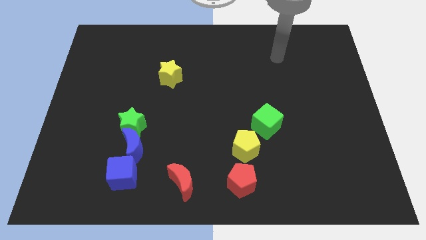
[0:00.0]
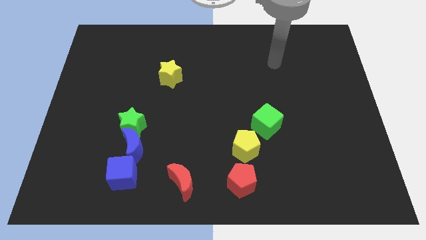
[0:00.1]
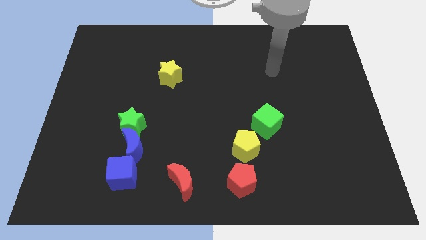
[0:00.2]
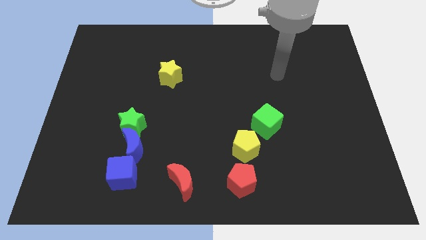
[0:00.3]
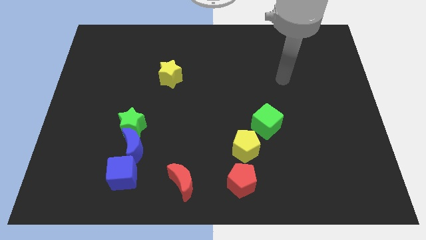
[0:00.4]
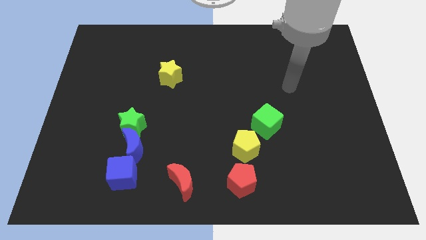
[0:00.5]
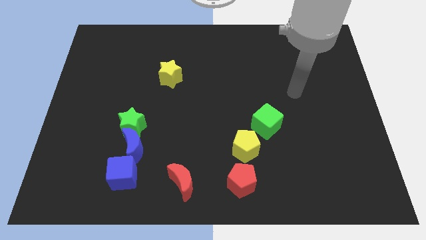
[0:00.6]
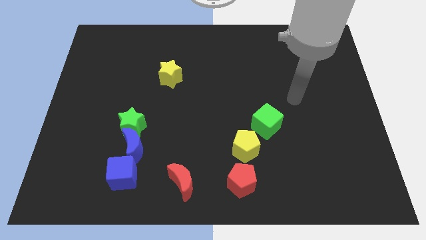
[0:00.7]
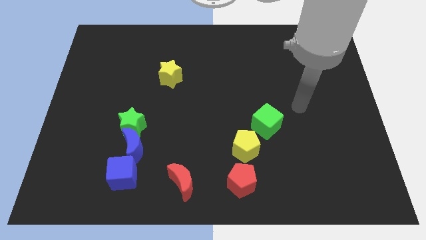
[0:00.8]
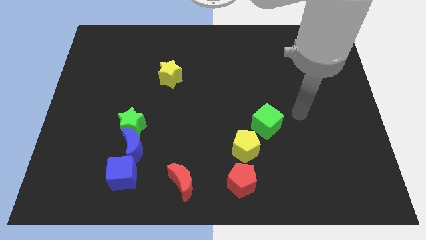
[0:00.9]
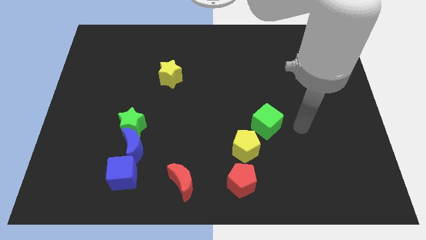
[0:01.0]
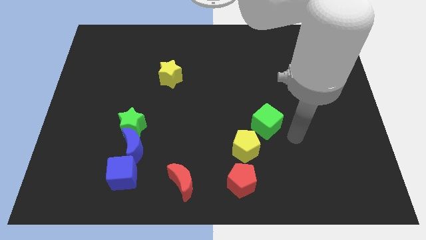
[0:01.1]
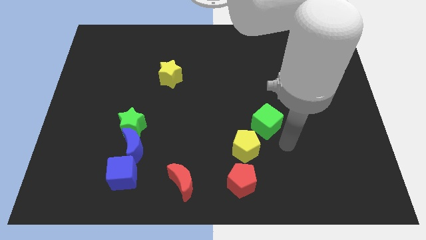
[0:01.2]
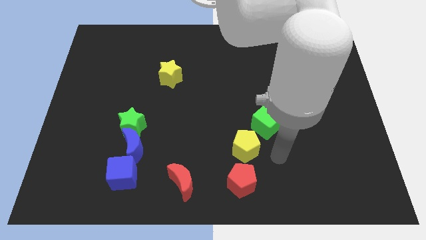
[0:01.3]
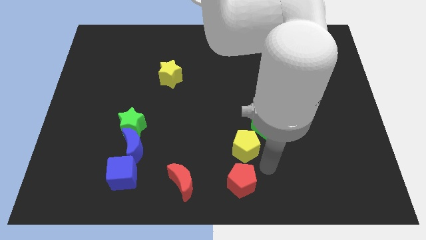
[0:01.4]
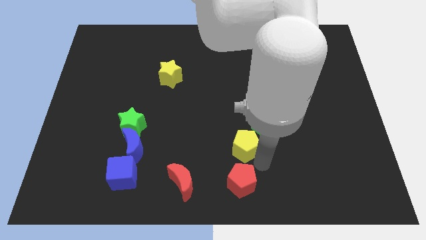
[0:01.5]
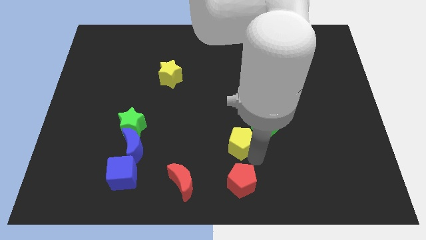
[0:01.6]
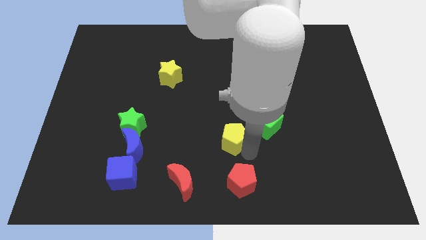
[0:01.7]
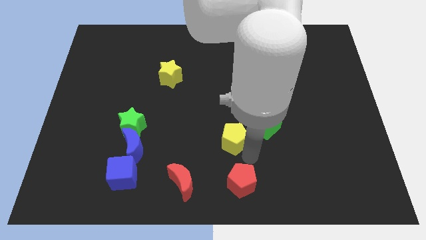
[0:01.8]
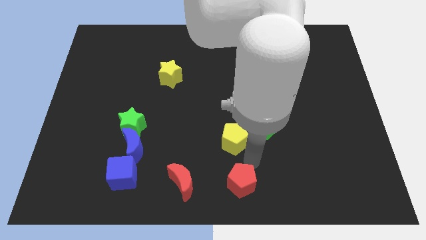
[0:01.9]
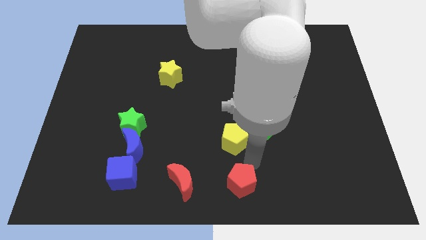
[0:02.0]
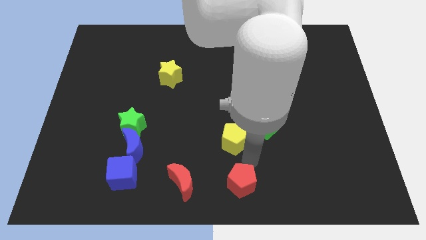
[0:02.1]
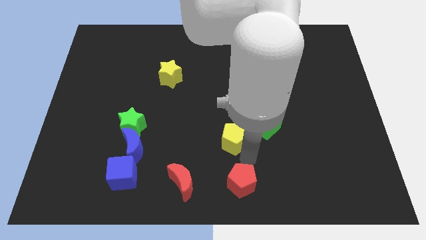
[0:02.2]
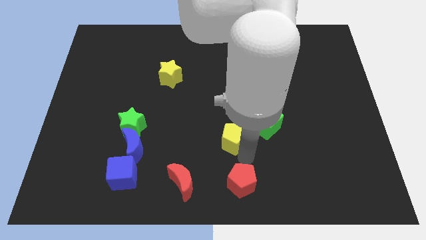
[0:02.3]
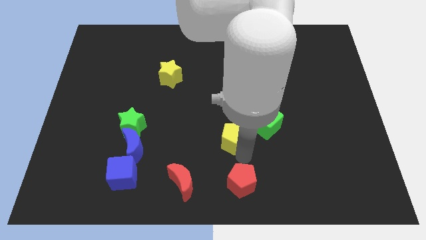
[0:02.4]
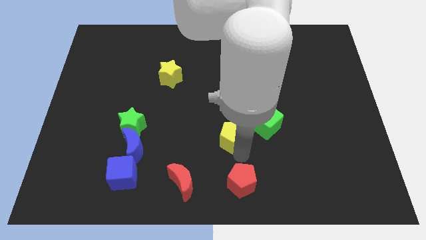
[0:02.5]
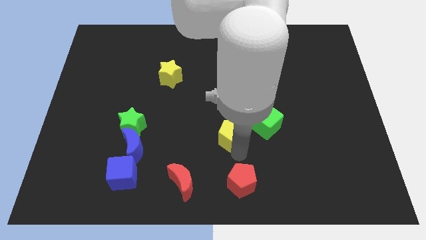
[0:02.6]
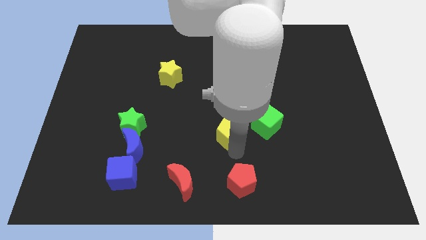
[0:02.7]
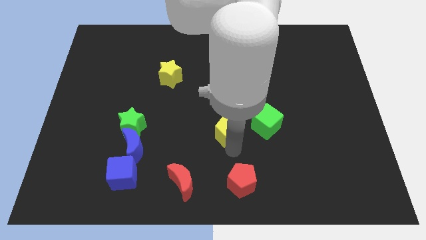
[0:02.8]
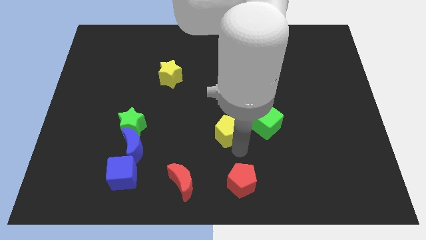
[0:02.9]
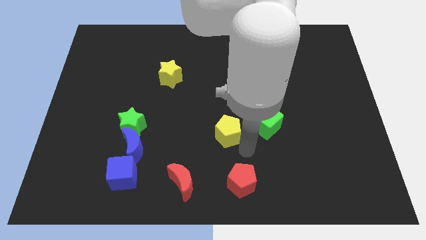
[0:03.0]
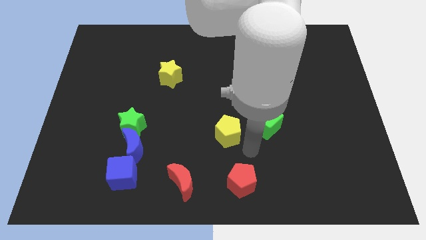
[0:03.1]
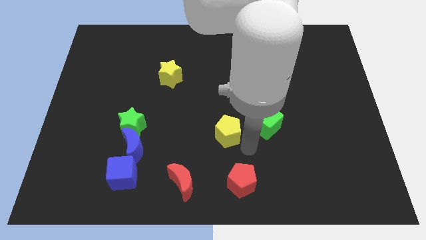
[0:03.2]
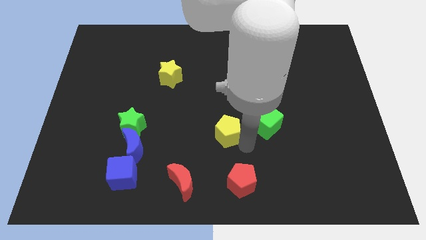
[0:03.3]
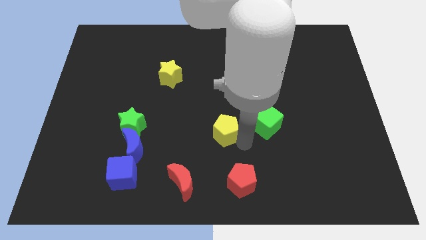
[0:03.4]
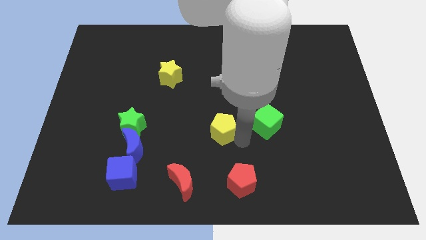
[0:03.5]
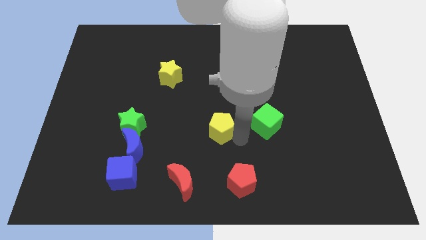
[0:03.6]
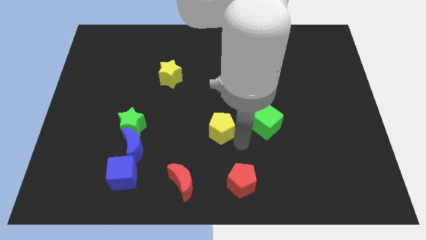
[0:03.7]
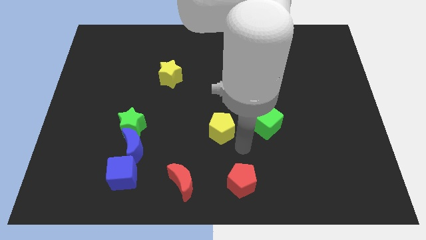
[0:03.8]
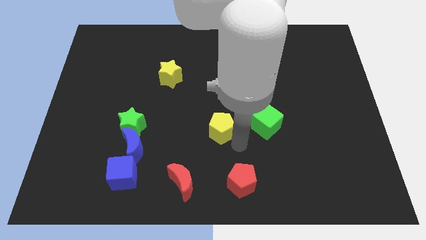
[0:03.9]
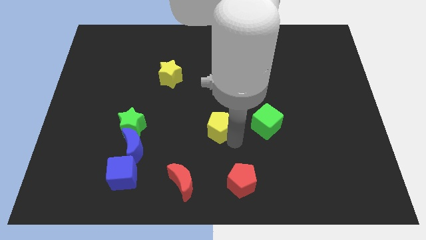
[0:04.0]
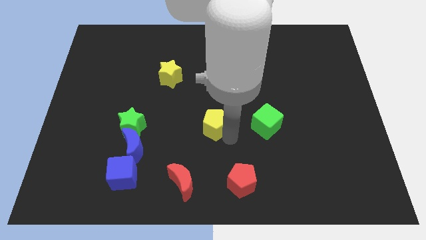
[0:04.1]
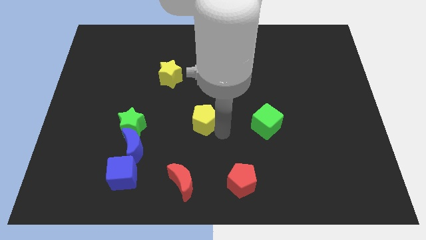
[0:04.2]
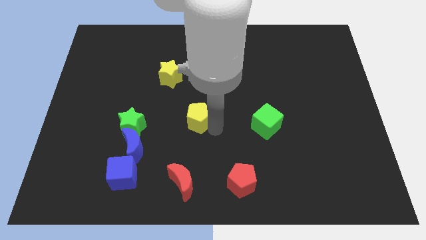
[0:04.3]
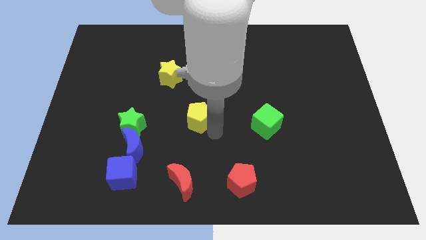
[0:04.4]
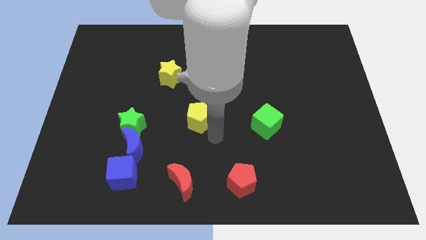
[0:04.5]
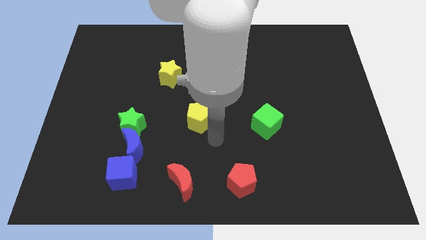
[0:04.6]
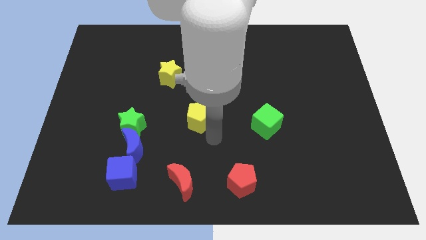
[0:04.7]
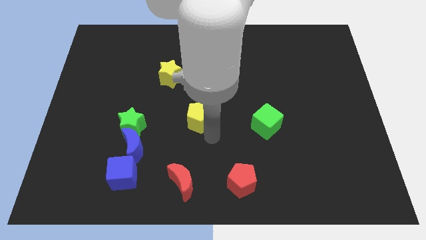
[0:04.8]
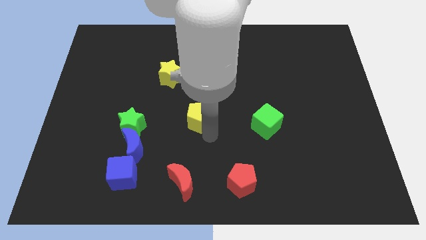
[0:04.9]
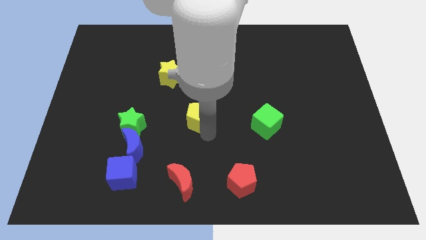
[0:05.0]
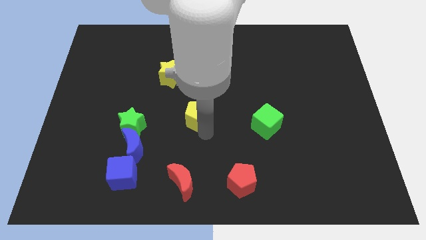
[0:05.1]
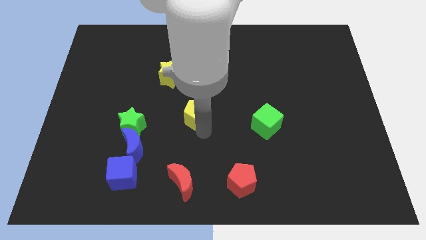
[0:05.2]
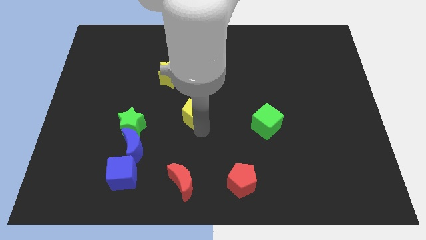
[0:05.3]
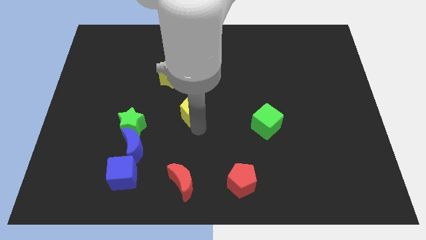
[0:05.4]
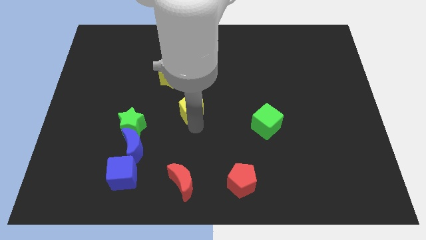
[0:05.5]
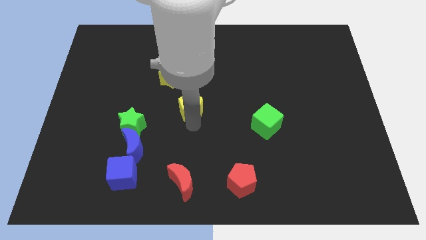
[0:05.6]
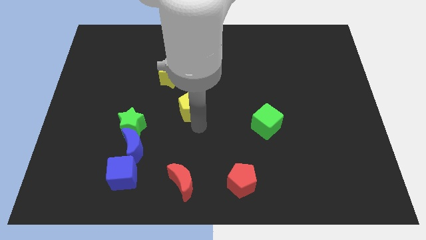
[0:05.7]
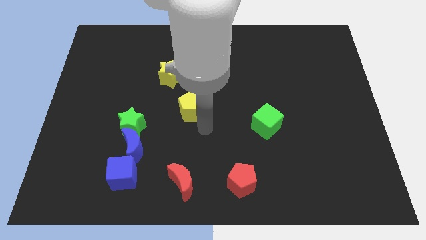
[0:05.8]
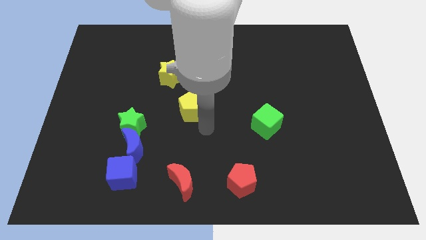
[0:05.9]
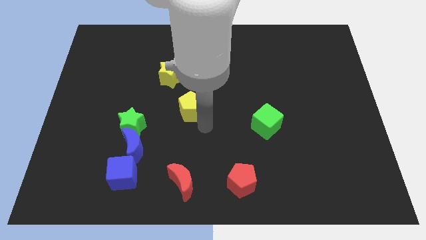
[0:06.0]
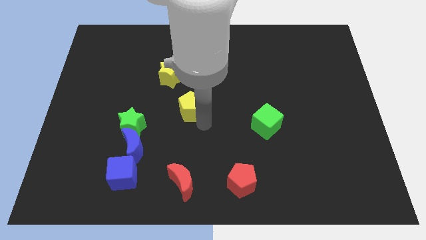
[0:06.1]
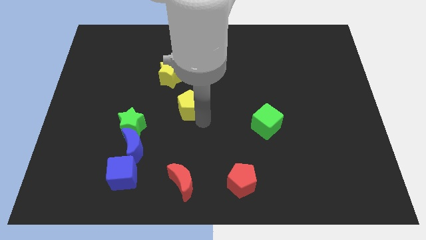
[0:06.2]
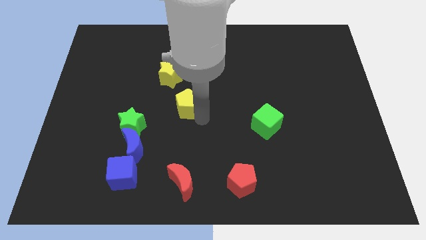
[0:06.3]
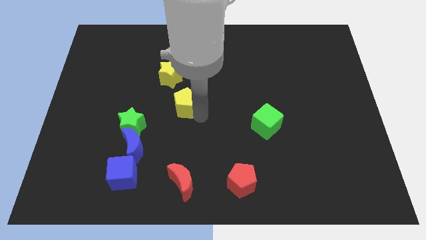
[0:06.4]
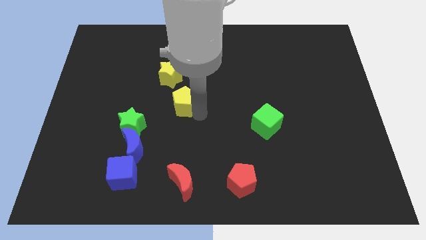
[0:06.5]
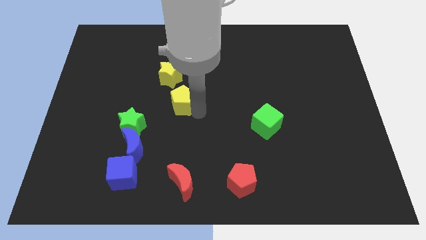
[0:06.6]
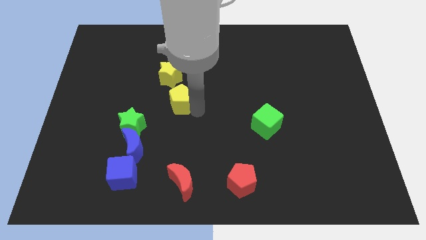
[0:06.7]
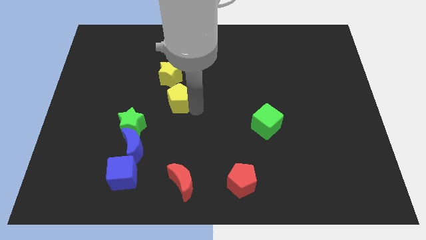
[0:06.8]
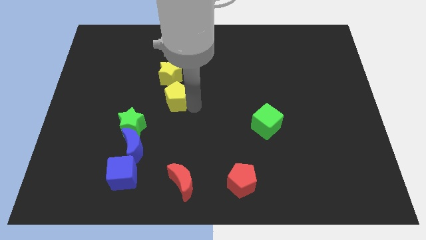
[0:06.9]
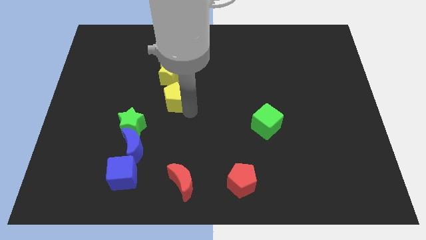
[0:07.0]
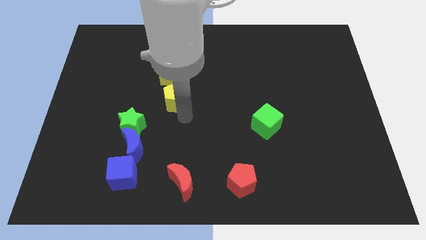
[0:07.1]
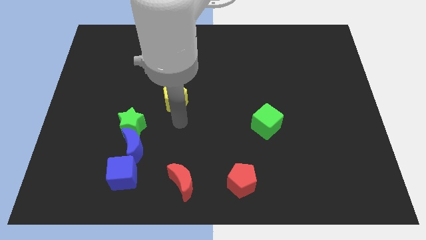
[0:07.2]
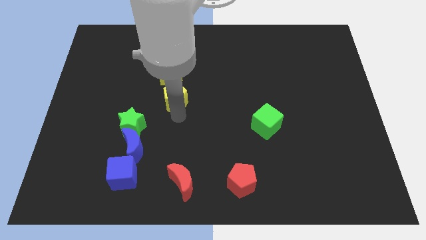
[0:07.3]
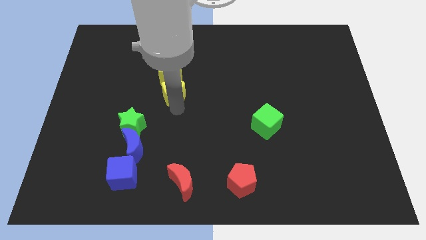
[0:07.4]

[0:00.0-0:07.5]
push the yellow pentagon to the yellow star

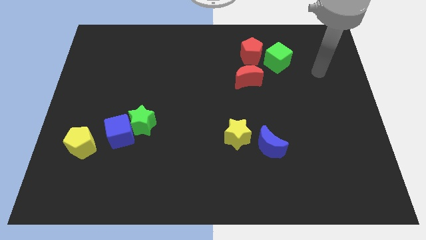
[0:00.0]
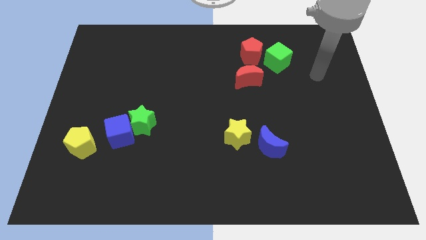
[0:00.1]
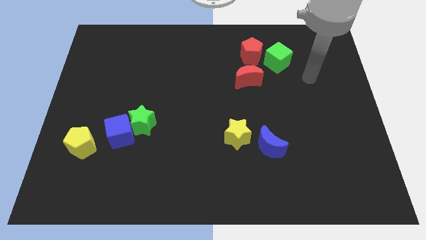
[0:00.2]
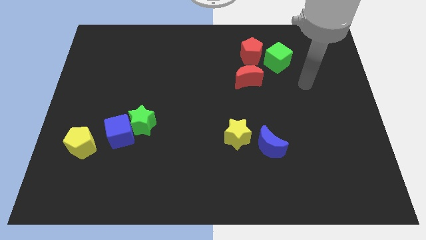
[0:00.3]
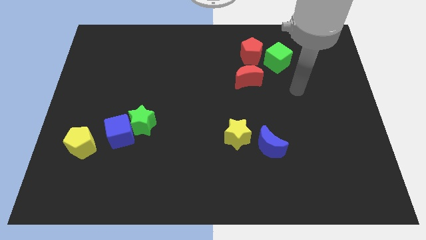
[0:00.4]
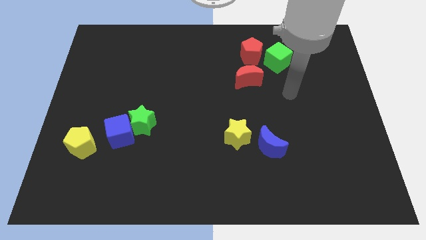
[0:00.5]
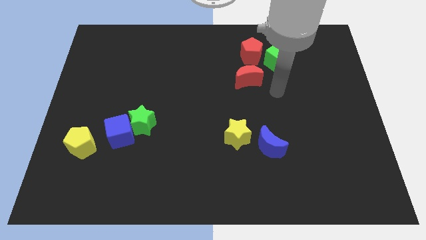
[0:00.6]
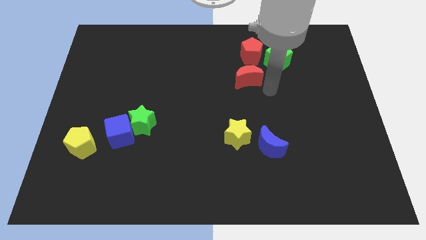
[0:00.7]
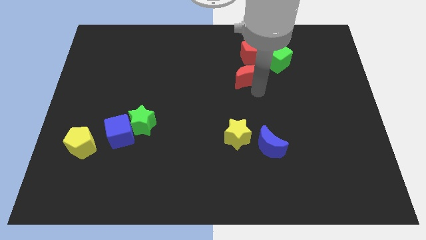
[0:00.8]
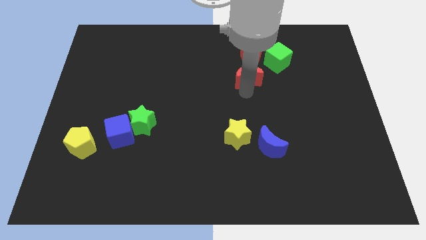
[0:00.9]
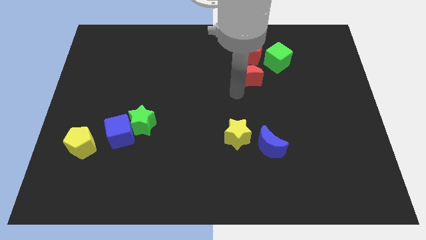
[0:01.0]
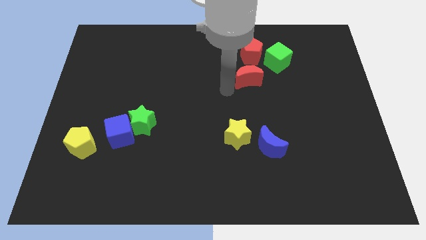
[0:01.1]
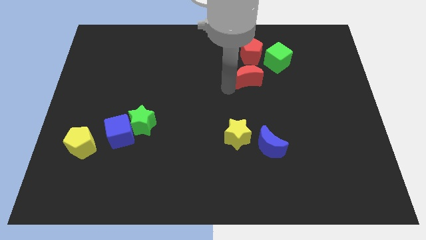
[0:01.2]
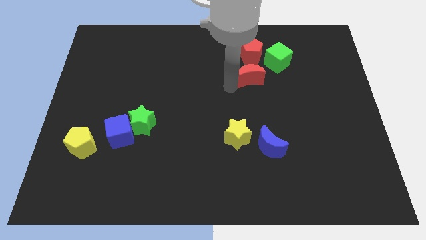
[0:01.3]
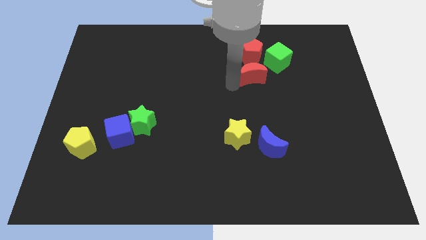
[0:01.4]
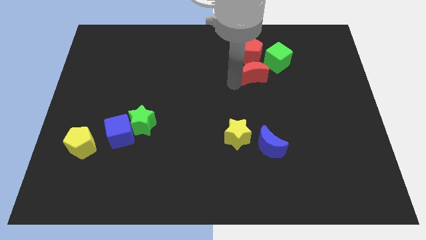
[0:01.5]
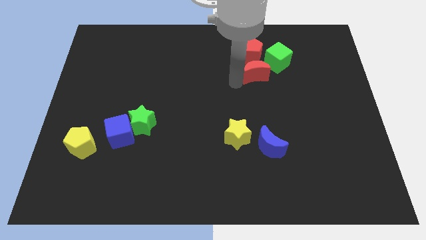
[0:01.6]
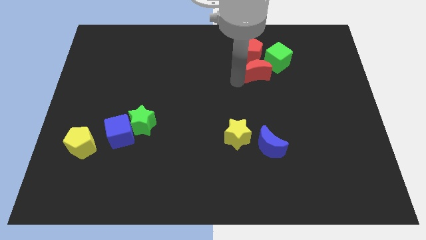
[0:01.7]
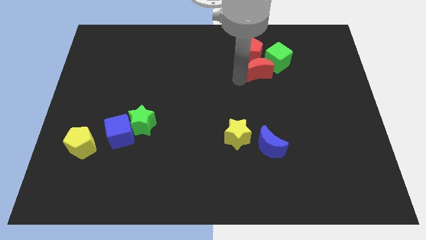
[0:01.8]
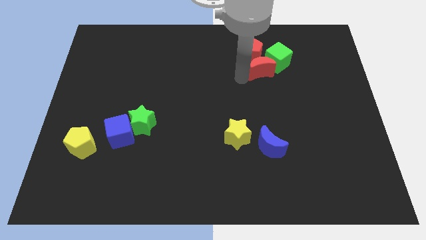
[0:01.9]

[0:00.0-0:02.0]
move the red moon next to the green cube
